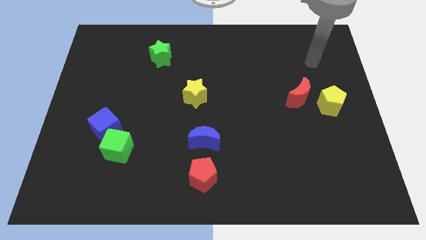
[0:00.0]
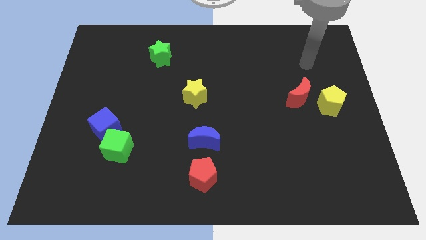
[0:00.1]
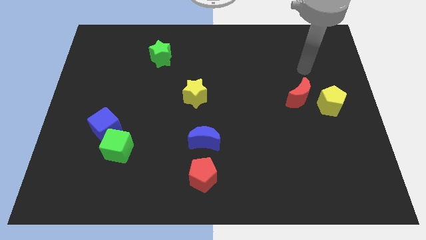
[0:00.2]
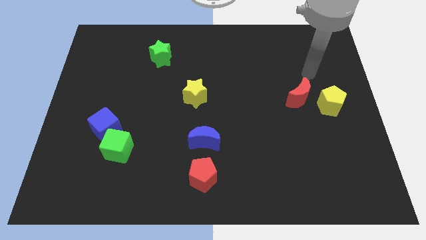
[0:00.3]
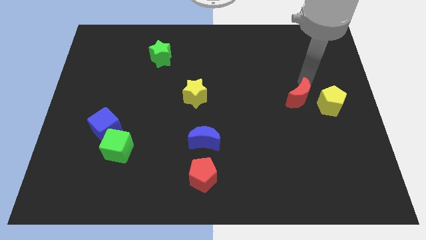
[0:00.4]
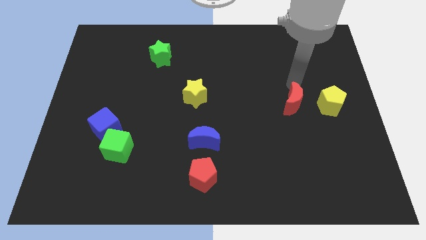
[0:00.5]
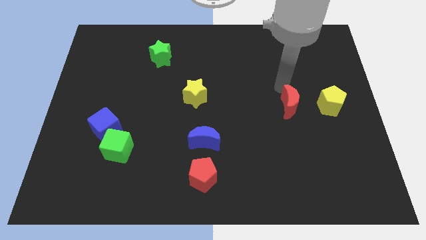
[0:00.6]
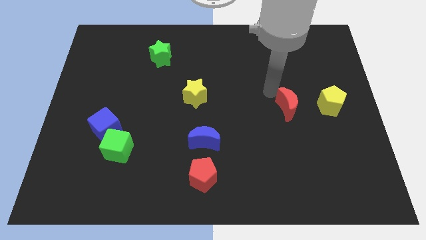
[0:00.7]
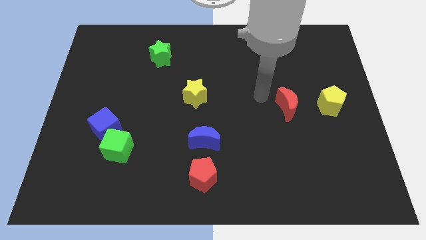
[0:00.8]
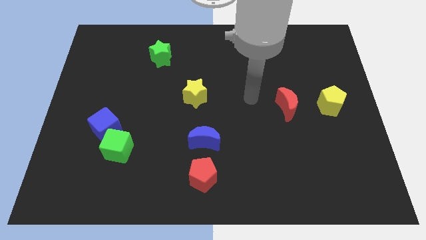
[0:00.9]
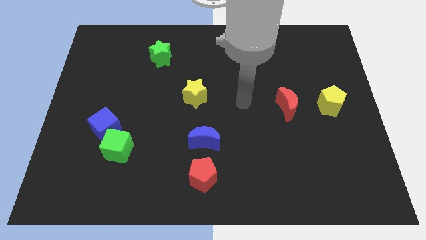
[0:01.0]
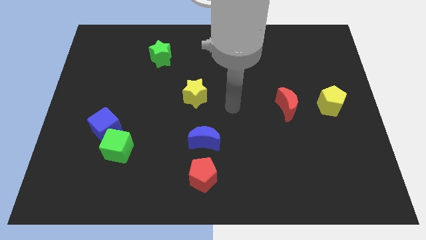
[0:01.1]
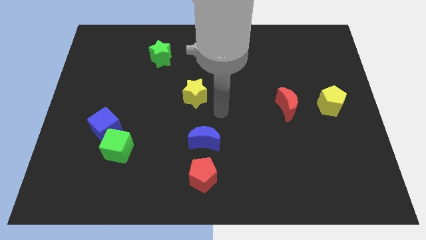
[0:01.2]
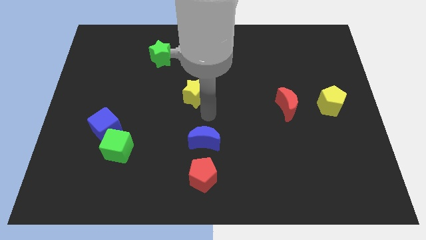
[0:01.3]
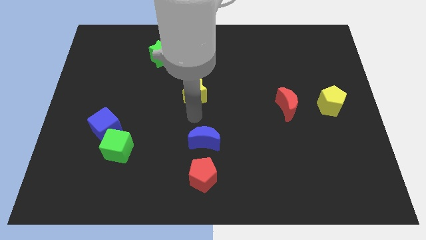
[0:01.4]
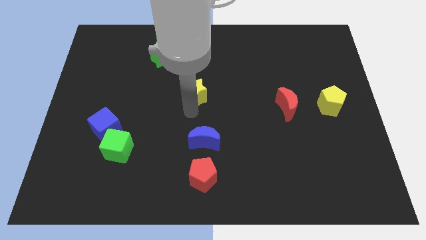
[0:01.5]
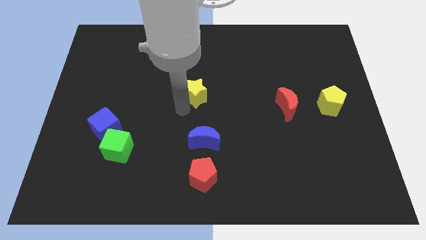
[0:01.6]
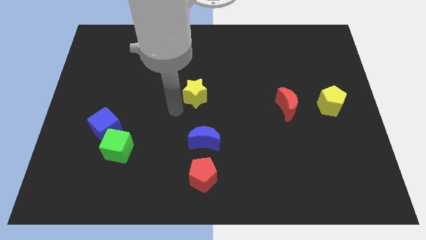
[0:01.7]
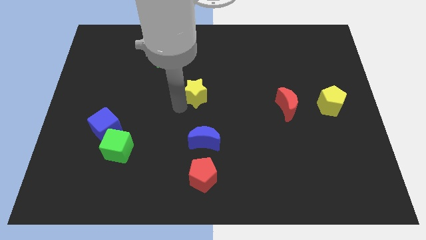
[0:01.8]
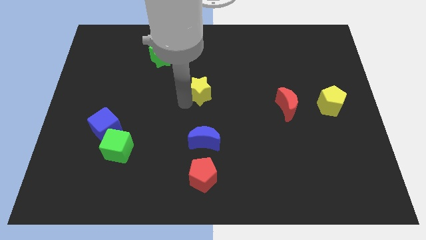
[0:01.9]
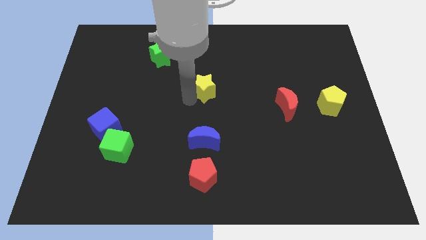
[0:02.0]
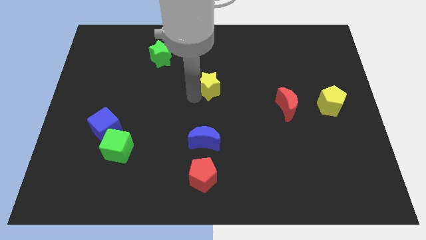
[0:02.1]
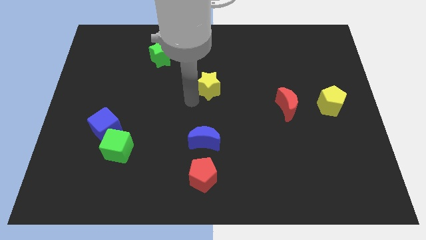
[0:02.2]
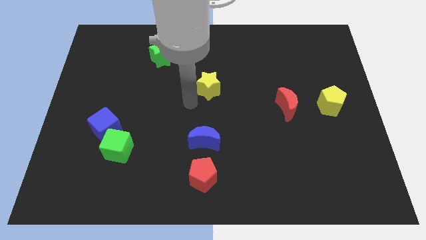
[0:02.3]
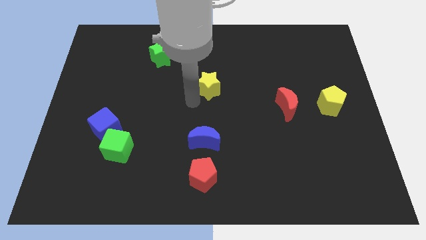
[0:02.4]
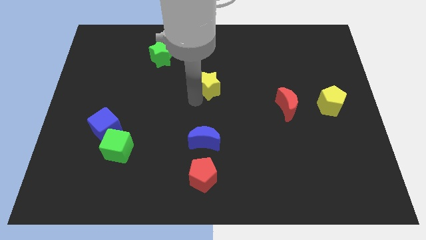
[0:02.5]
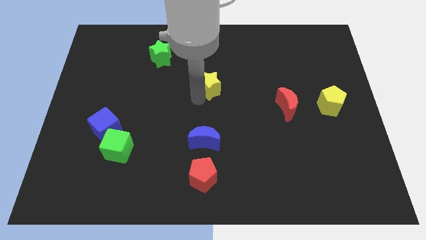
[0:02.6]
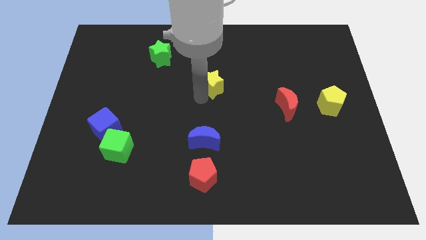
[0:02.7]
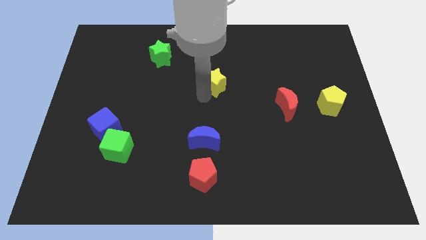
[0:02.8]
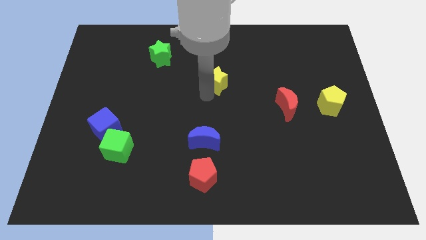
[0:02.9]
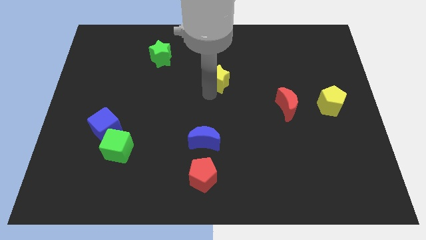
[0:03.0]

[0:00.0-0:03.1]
slightly slide the yellow star up and then right

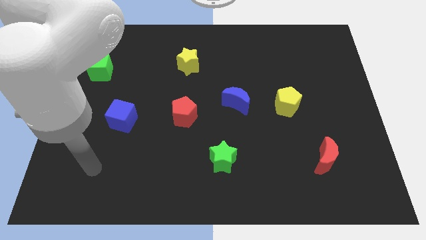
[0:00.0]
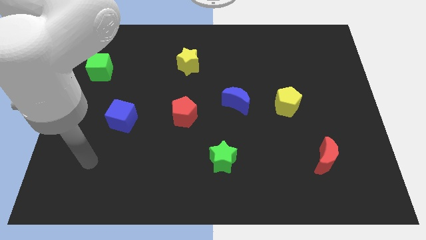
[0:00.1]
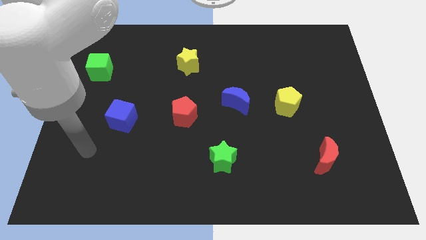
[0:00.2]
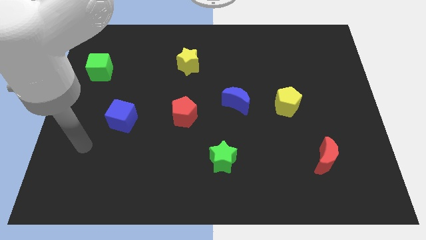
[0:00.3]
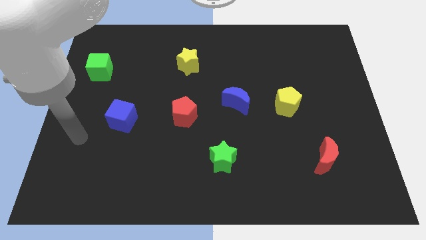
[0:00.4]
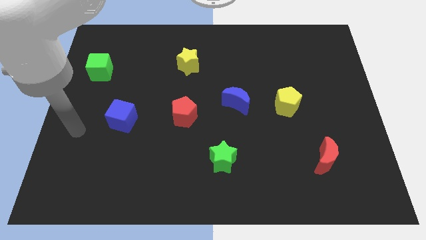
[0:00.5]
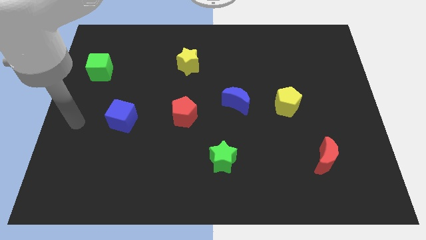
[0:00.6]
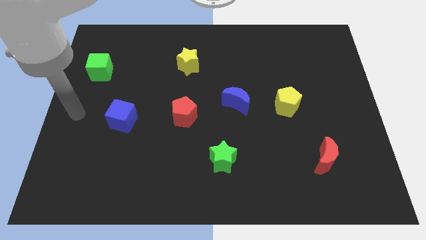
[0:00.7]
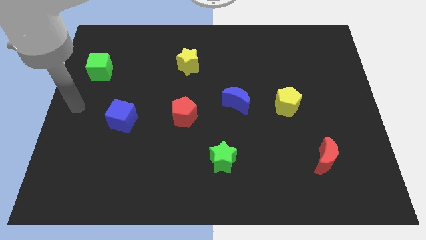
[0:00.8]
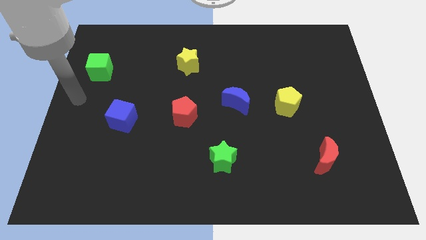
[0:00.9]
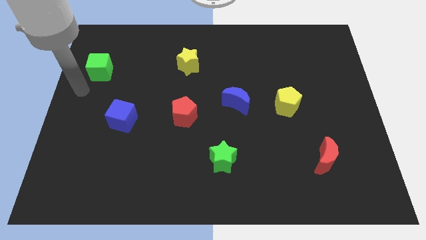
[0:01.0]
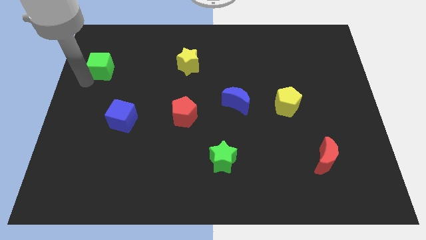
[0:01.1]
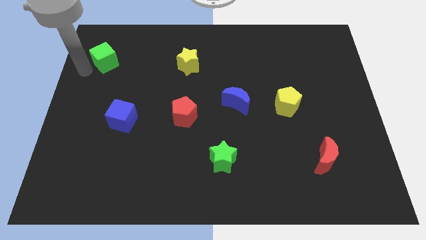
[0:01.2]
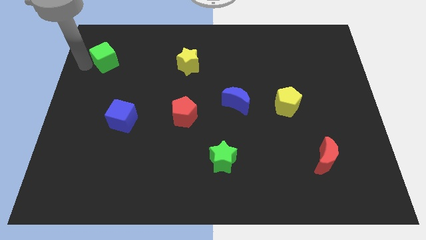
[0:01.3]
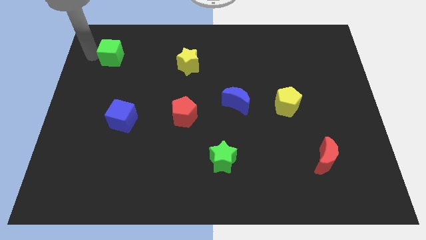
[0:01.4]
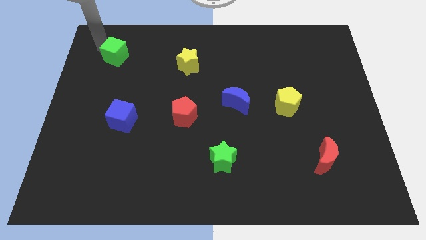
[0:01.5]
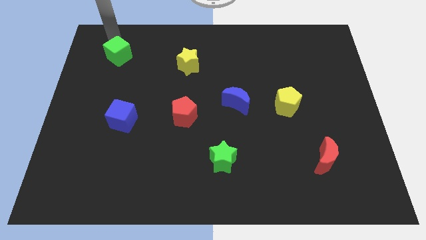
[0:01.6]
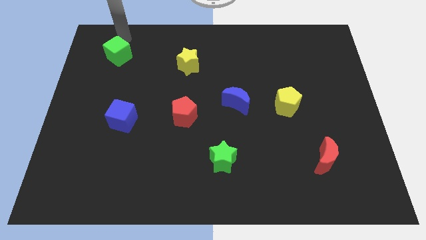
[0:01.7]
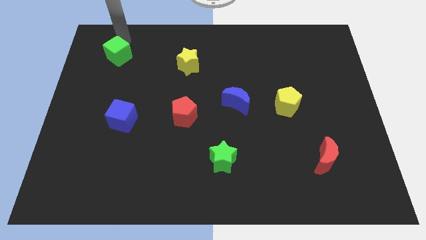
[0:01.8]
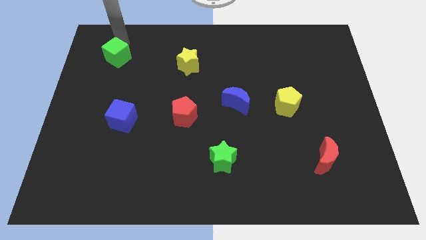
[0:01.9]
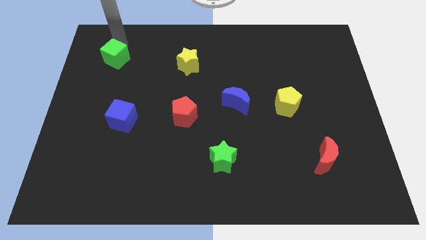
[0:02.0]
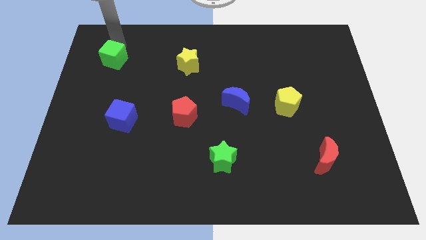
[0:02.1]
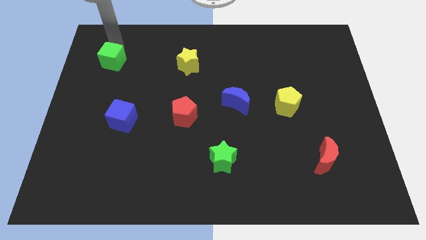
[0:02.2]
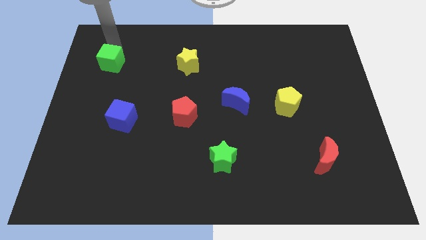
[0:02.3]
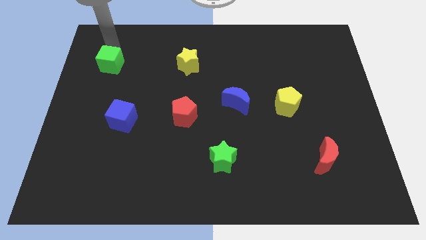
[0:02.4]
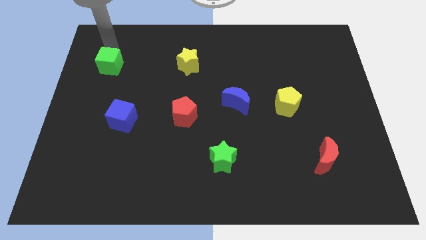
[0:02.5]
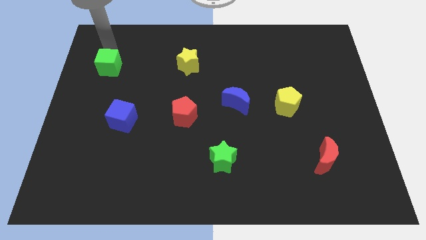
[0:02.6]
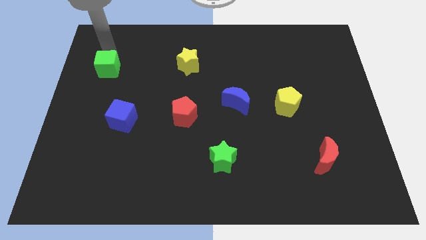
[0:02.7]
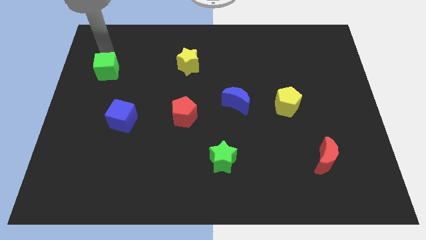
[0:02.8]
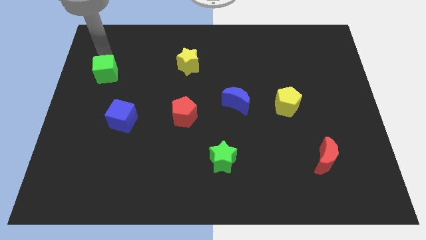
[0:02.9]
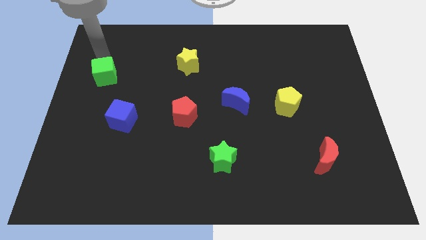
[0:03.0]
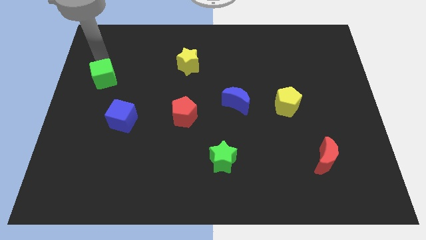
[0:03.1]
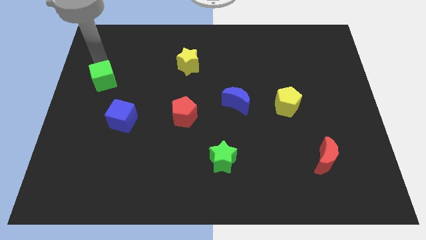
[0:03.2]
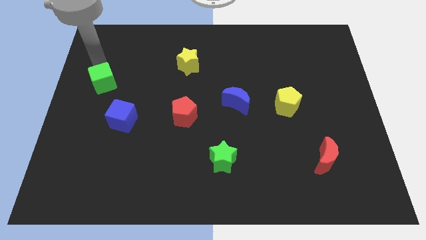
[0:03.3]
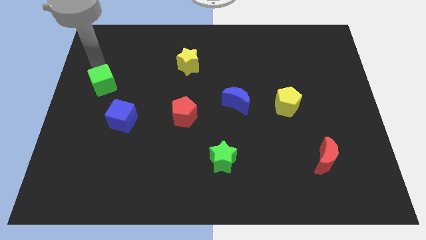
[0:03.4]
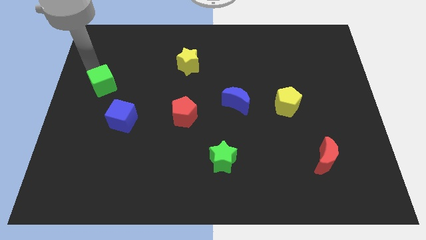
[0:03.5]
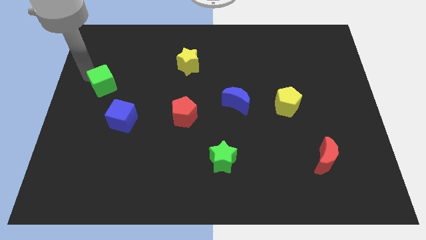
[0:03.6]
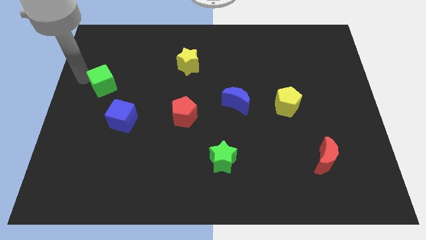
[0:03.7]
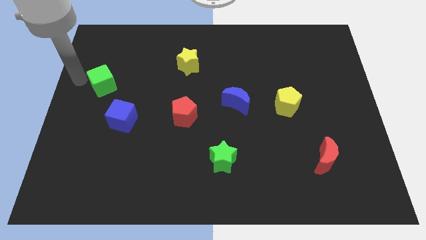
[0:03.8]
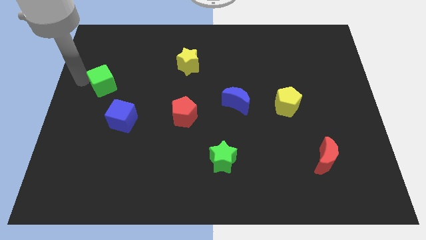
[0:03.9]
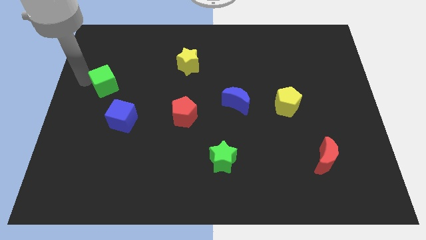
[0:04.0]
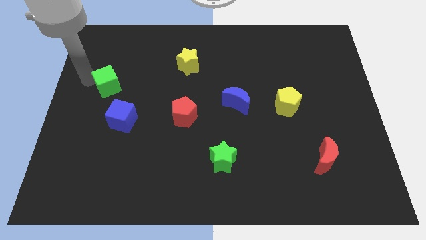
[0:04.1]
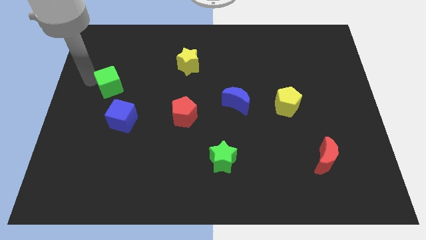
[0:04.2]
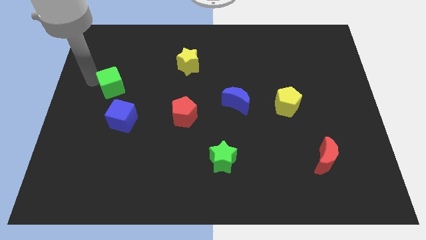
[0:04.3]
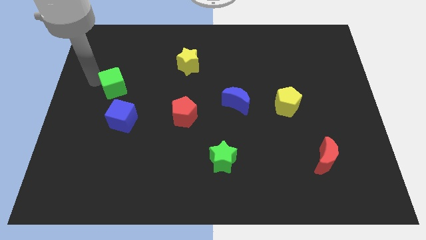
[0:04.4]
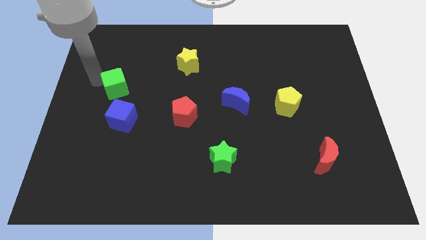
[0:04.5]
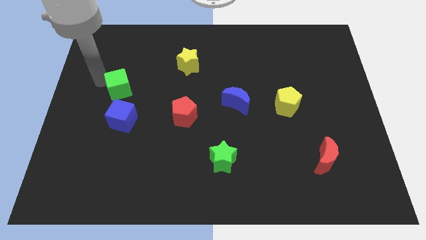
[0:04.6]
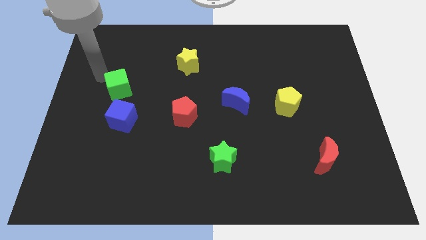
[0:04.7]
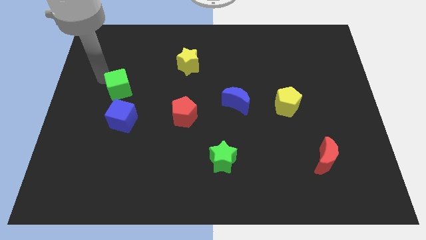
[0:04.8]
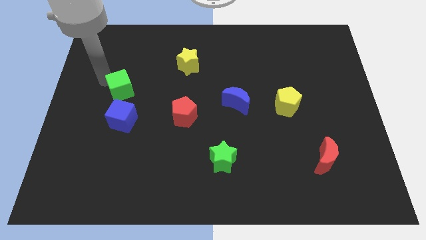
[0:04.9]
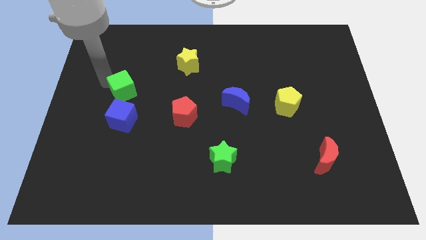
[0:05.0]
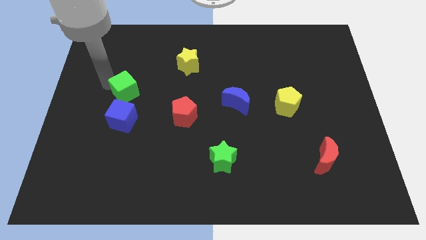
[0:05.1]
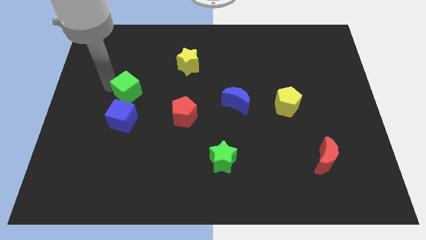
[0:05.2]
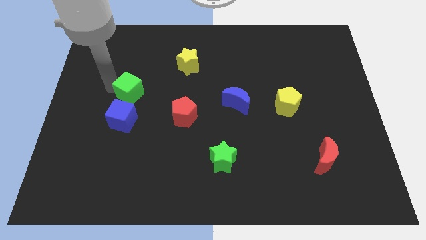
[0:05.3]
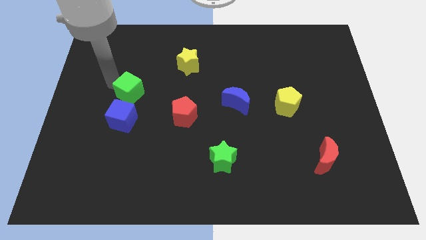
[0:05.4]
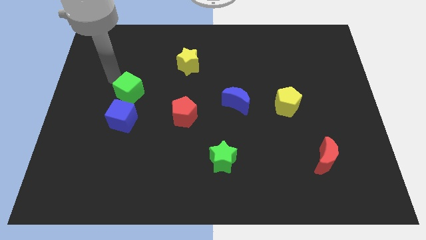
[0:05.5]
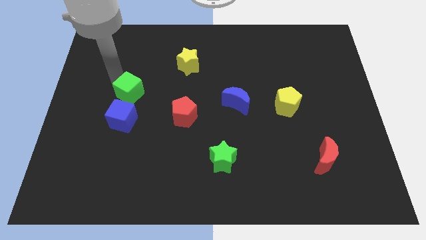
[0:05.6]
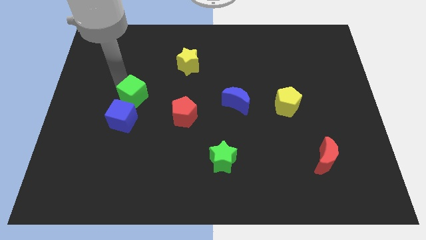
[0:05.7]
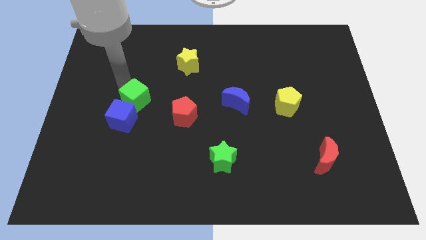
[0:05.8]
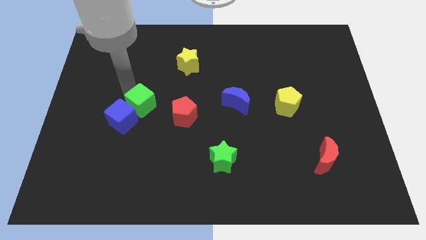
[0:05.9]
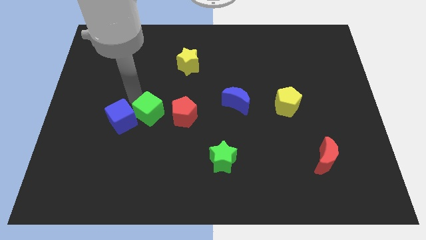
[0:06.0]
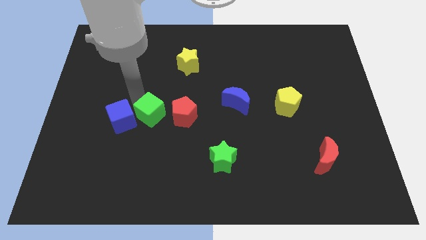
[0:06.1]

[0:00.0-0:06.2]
slide the green cube diagonally down and to the right
